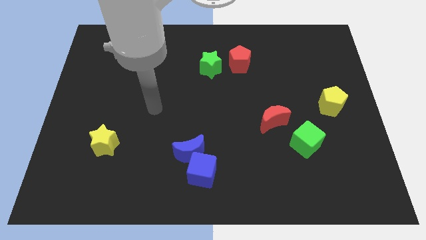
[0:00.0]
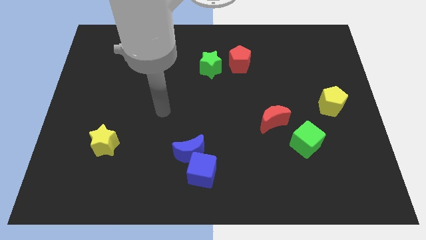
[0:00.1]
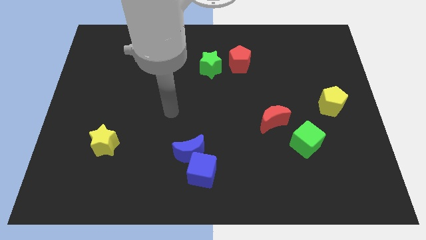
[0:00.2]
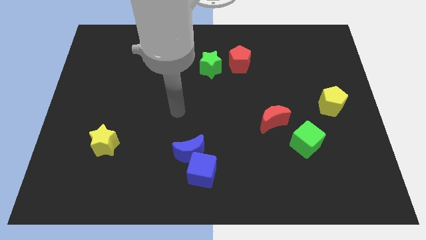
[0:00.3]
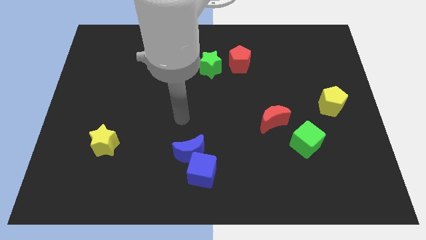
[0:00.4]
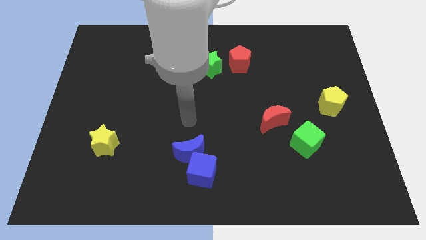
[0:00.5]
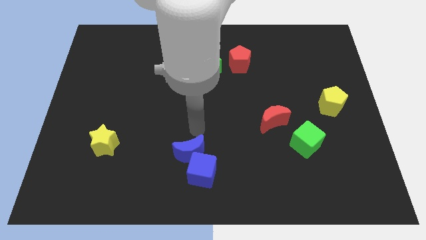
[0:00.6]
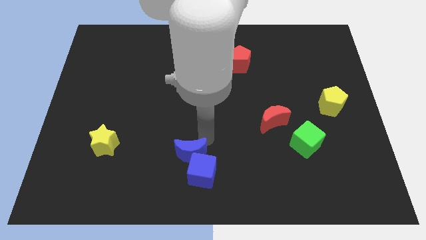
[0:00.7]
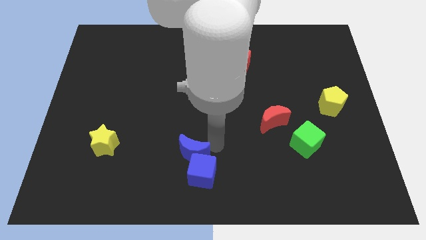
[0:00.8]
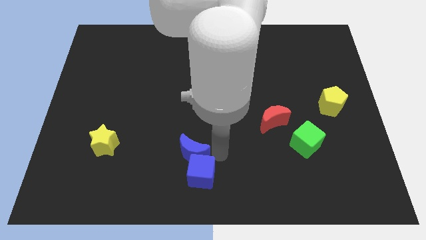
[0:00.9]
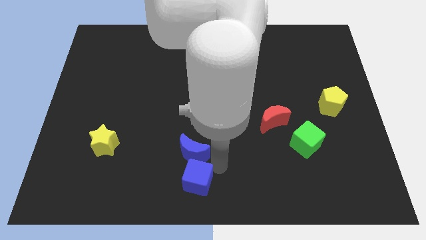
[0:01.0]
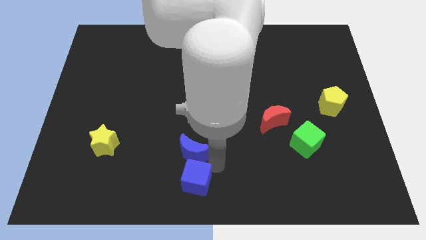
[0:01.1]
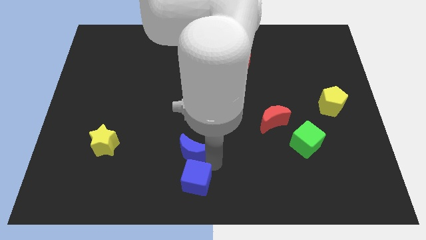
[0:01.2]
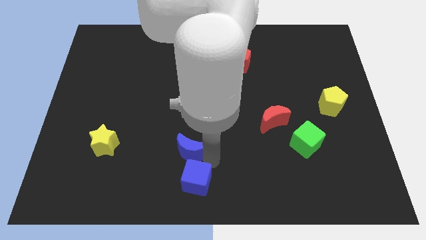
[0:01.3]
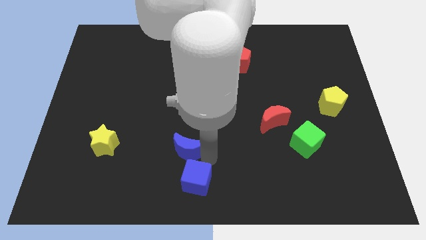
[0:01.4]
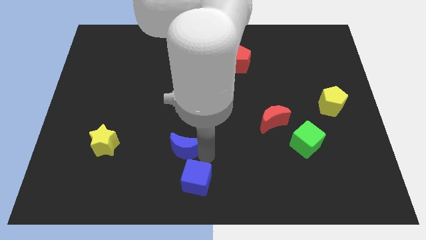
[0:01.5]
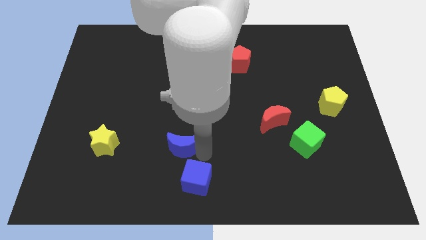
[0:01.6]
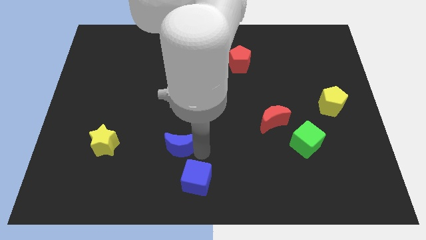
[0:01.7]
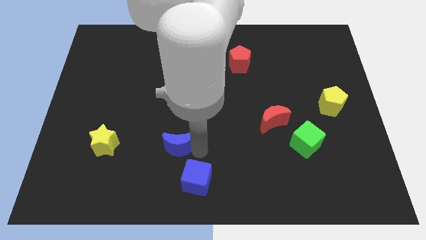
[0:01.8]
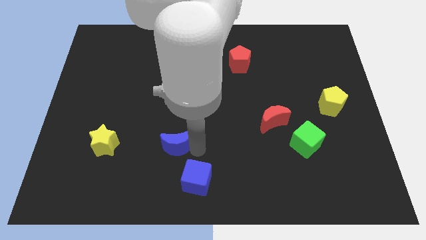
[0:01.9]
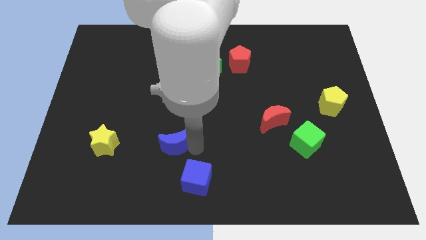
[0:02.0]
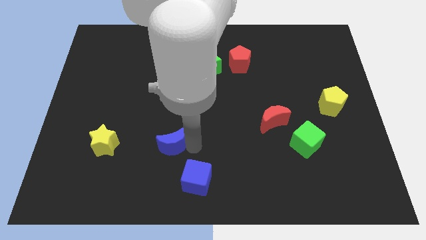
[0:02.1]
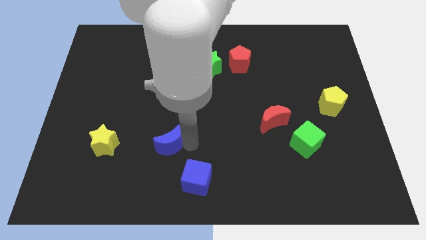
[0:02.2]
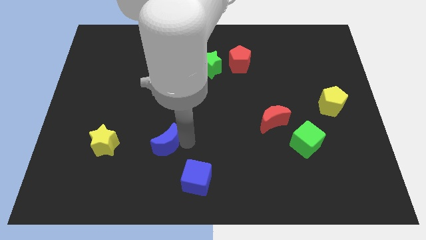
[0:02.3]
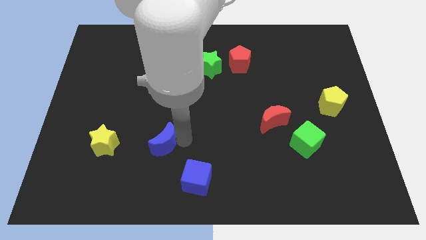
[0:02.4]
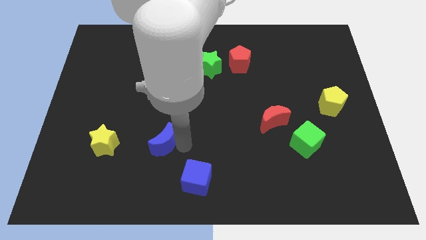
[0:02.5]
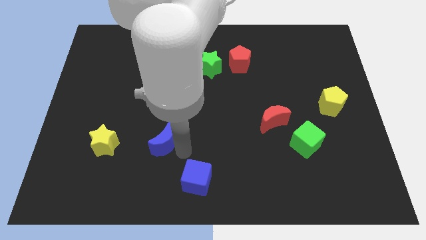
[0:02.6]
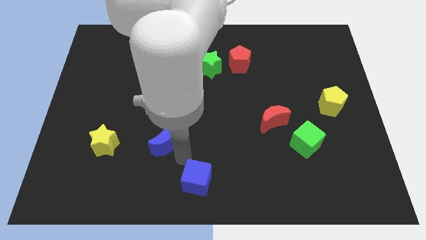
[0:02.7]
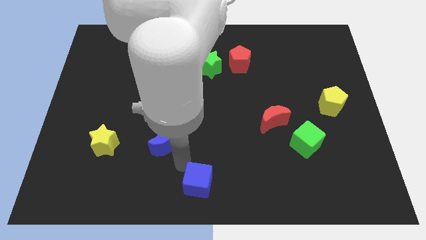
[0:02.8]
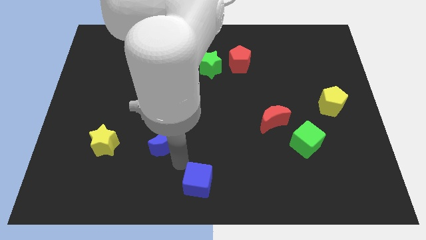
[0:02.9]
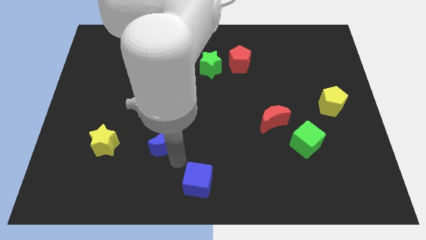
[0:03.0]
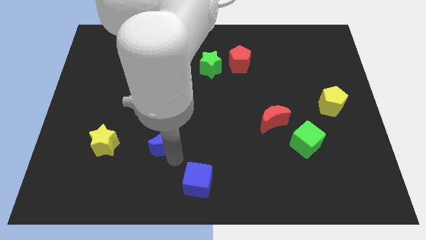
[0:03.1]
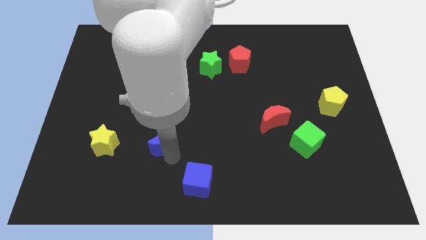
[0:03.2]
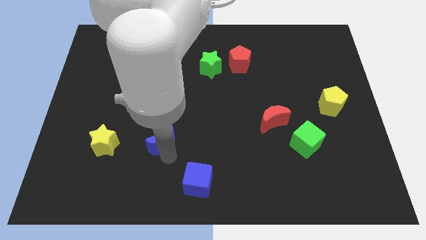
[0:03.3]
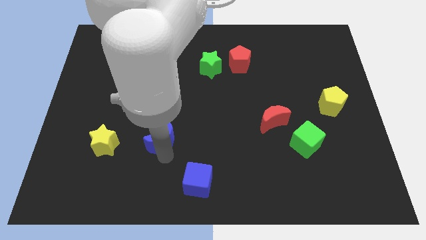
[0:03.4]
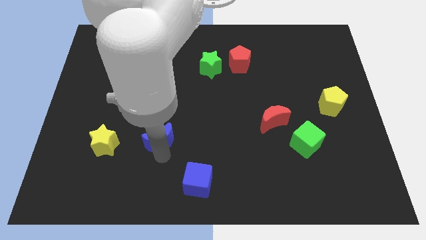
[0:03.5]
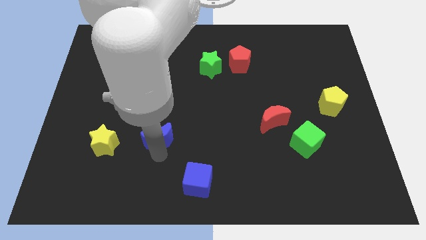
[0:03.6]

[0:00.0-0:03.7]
push the blue moon slightly up and left

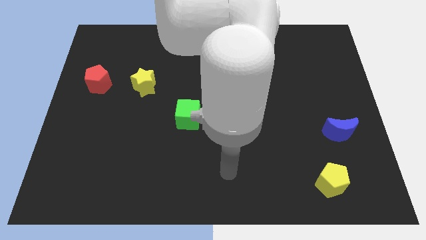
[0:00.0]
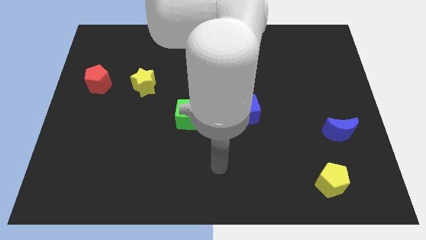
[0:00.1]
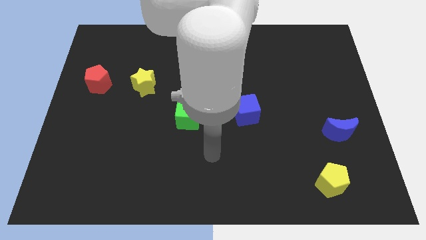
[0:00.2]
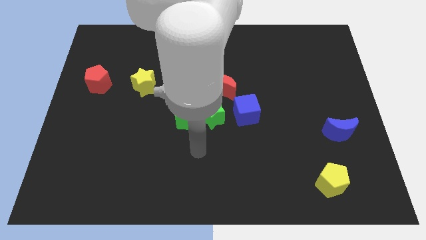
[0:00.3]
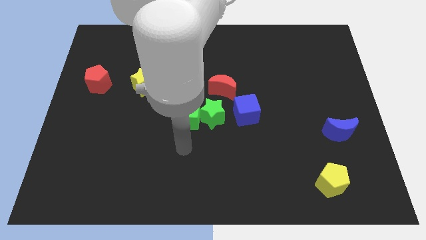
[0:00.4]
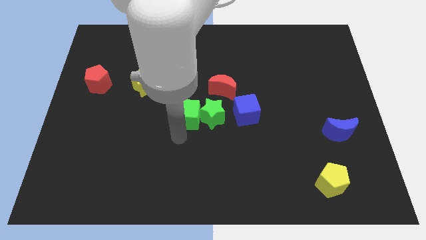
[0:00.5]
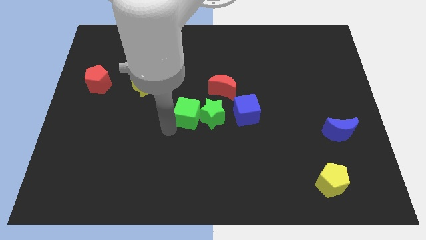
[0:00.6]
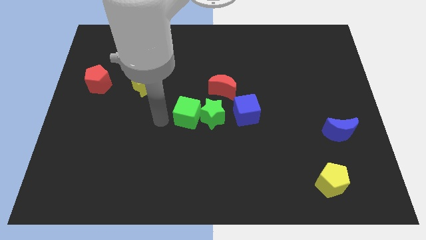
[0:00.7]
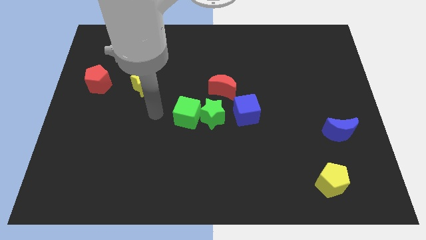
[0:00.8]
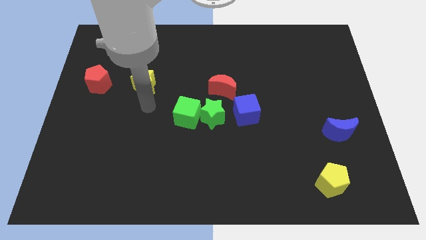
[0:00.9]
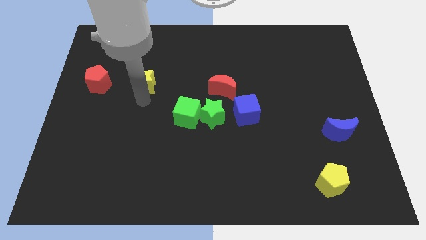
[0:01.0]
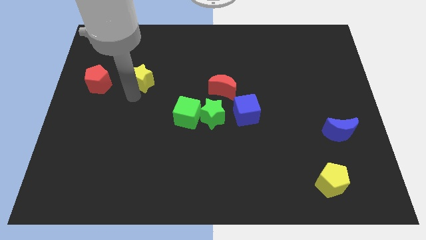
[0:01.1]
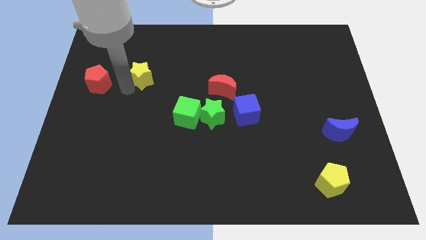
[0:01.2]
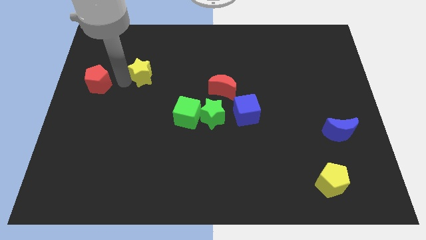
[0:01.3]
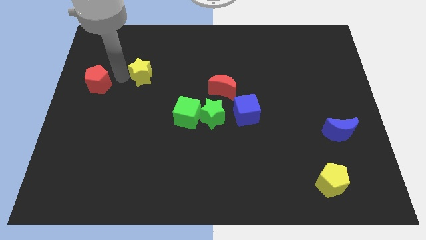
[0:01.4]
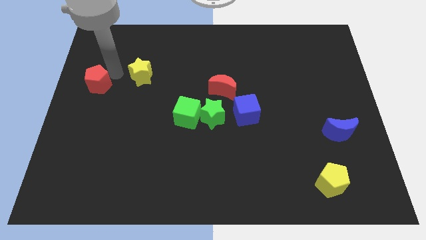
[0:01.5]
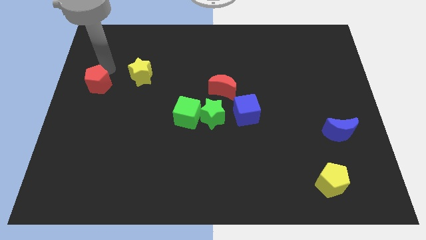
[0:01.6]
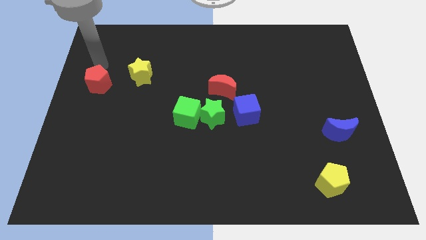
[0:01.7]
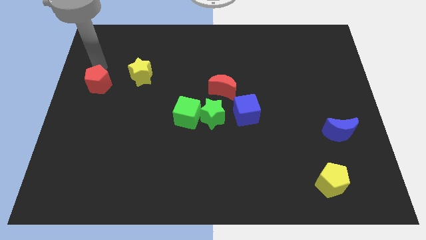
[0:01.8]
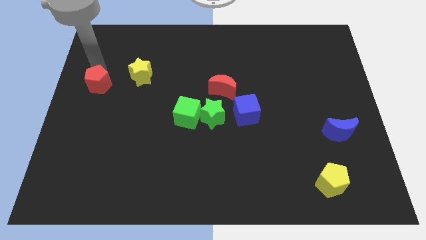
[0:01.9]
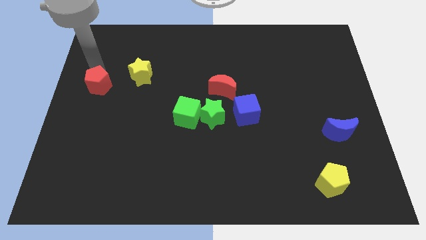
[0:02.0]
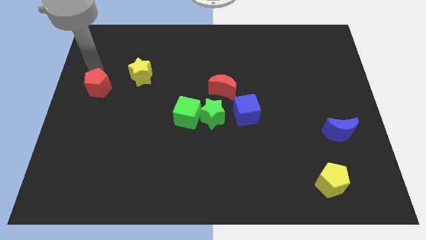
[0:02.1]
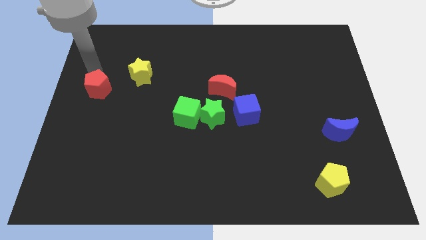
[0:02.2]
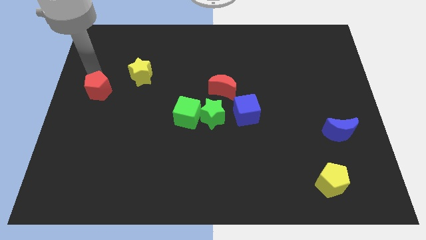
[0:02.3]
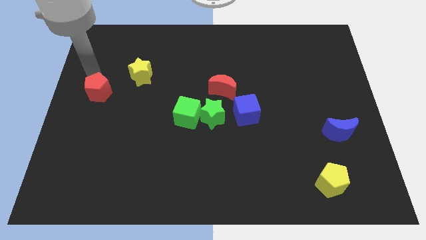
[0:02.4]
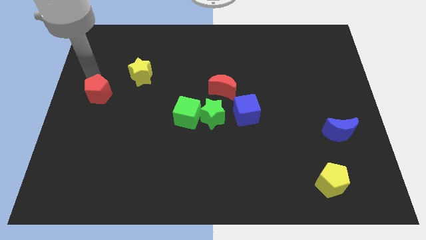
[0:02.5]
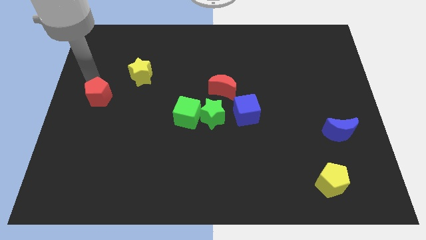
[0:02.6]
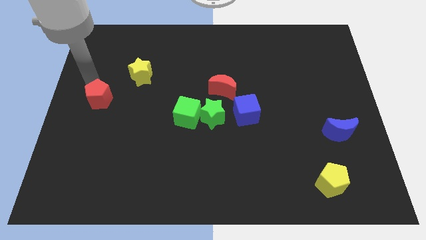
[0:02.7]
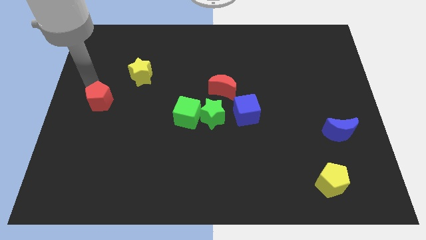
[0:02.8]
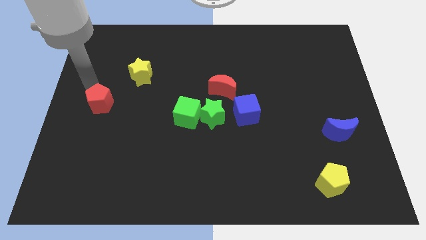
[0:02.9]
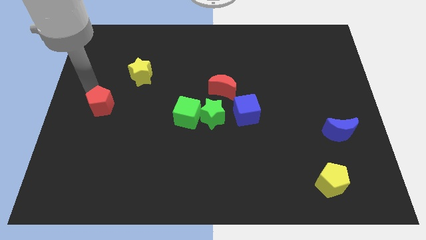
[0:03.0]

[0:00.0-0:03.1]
slide the red pentagon a little bit down

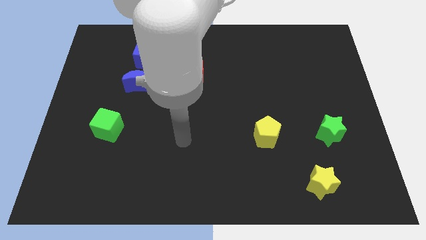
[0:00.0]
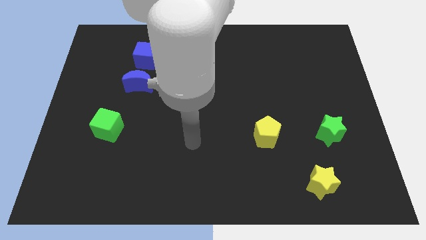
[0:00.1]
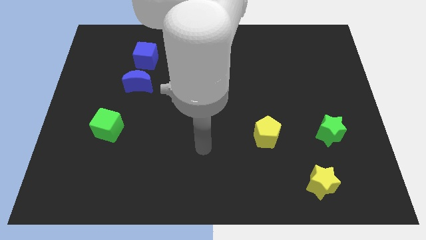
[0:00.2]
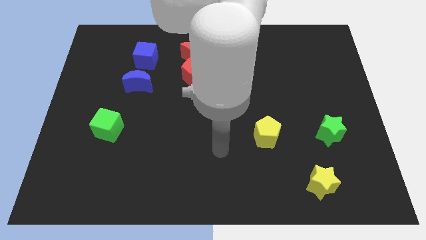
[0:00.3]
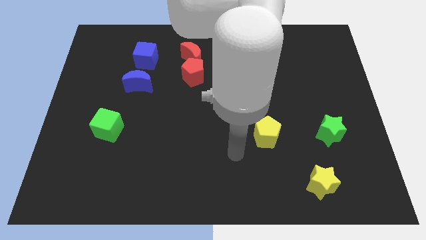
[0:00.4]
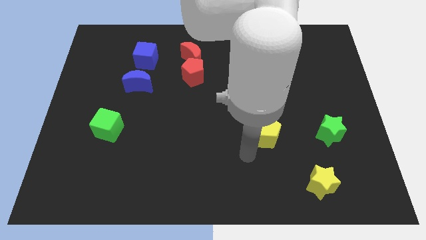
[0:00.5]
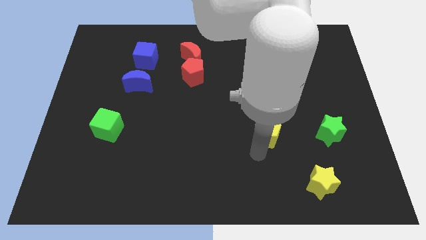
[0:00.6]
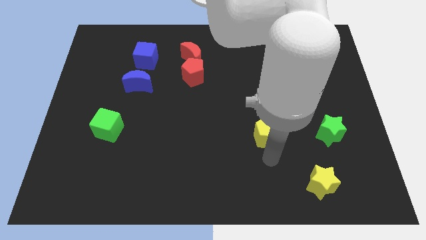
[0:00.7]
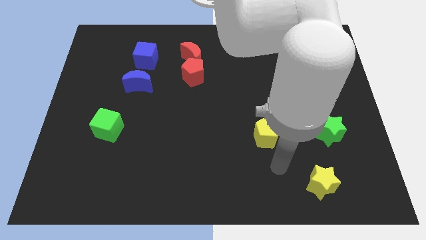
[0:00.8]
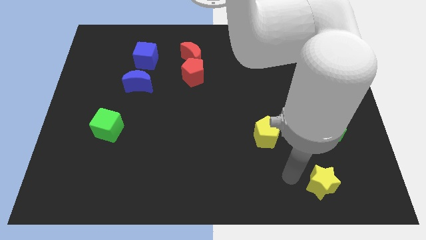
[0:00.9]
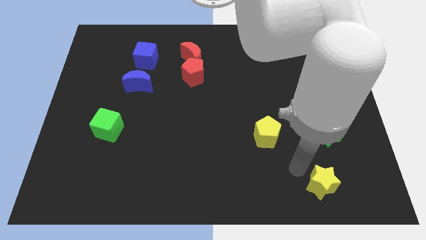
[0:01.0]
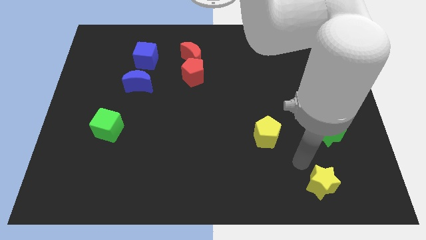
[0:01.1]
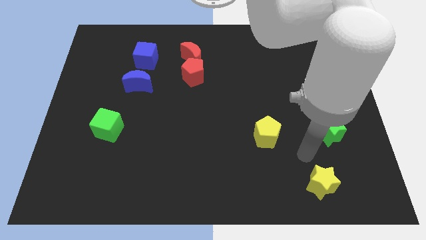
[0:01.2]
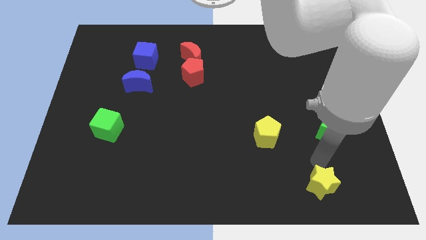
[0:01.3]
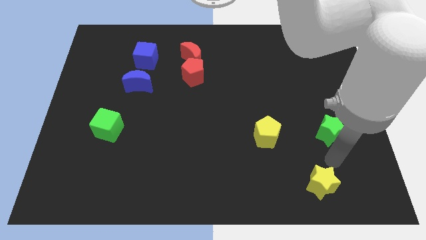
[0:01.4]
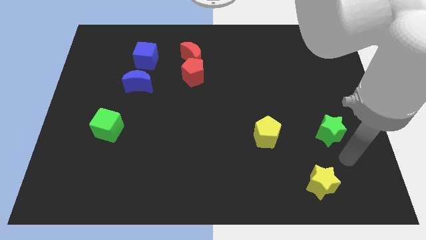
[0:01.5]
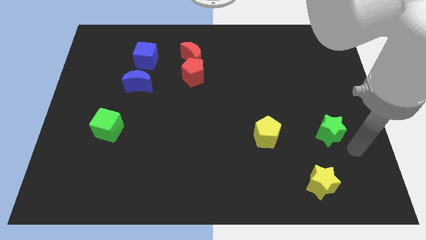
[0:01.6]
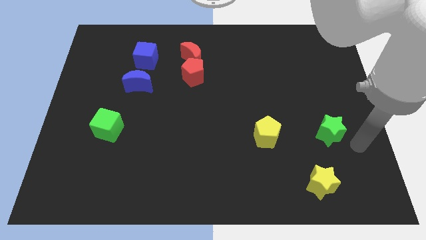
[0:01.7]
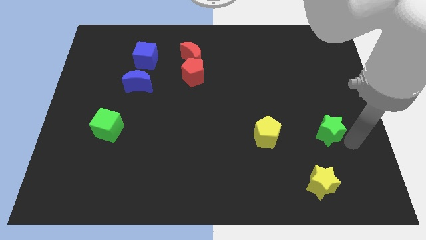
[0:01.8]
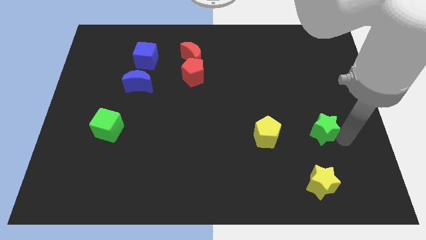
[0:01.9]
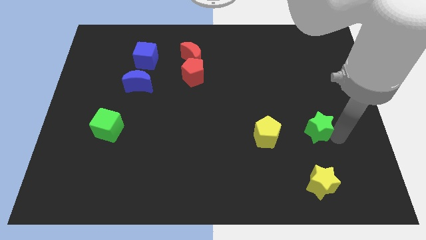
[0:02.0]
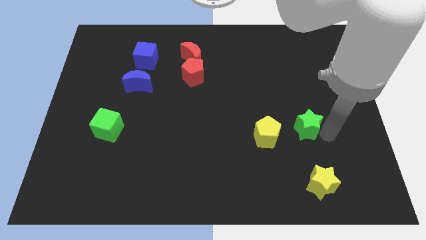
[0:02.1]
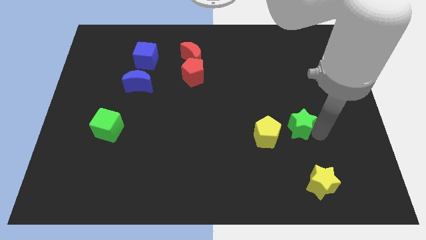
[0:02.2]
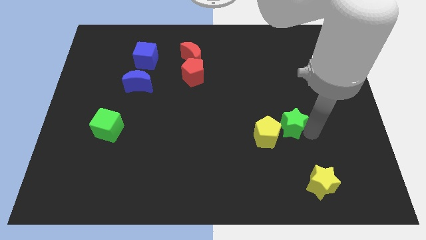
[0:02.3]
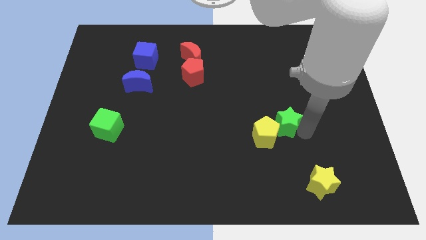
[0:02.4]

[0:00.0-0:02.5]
push the green star diagonally up and left a bit
